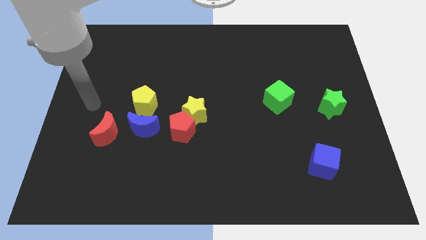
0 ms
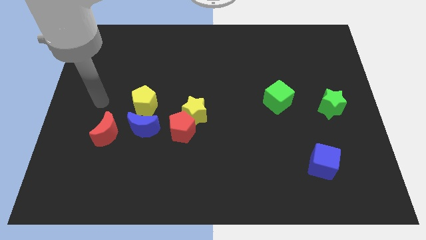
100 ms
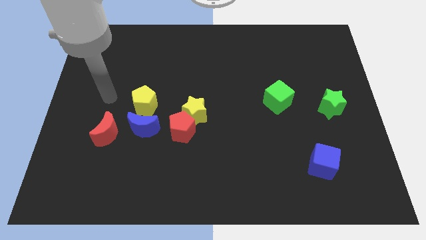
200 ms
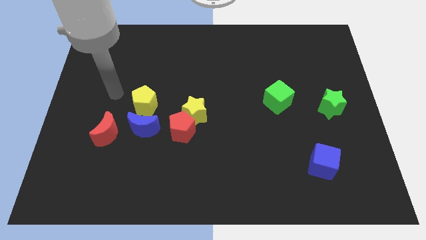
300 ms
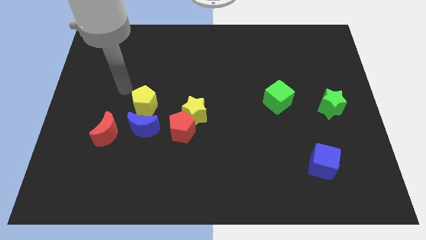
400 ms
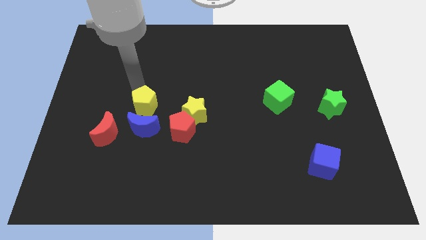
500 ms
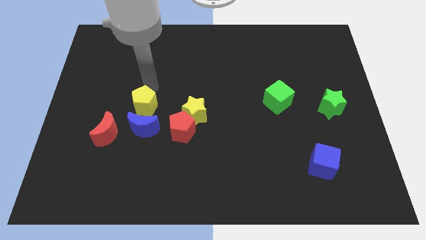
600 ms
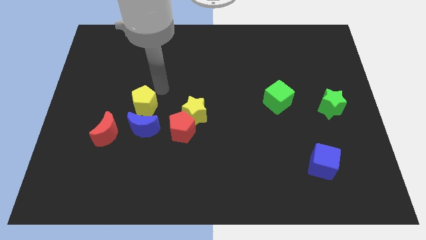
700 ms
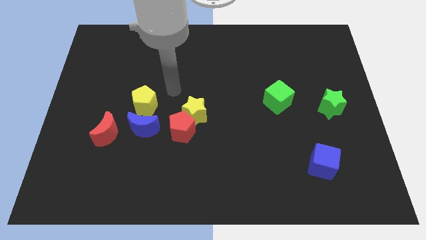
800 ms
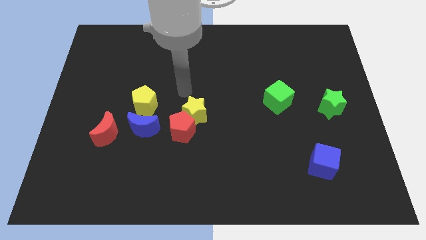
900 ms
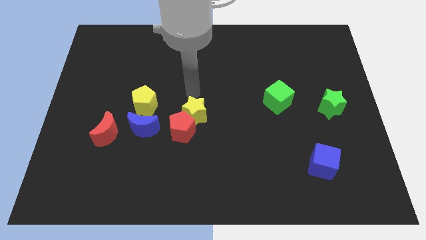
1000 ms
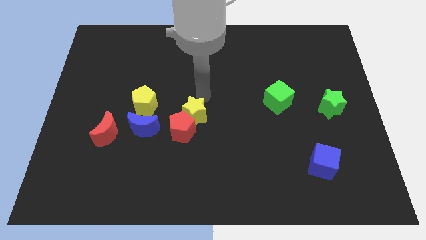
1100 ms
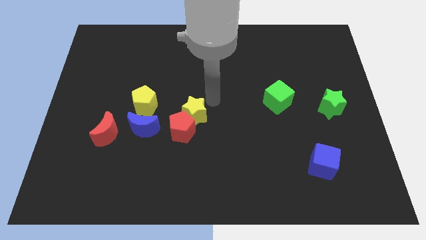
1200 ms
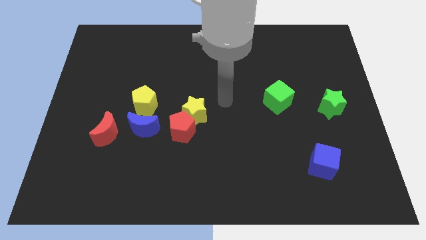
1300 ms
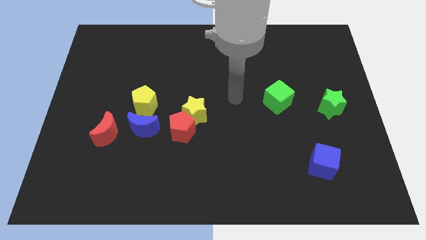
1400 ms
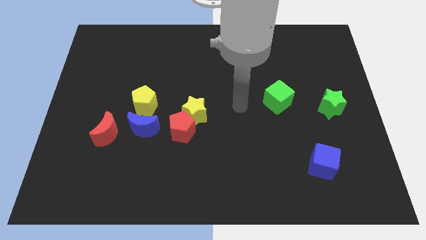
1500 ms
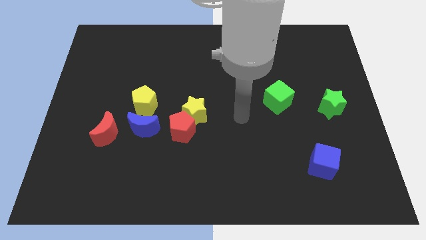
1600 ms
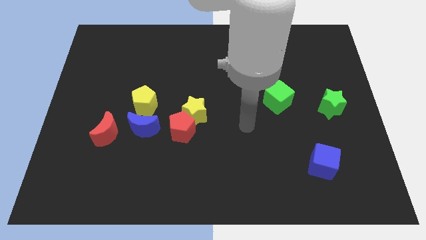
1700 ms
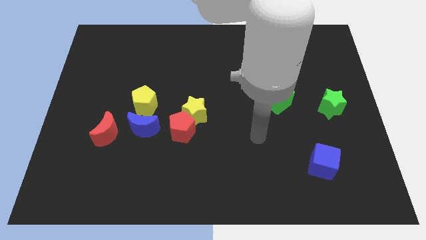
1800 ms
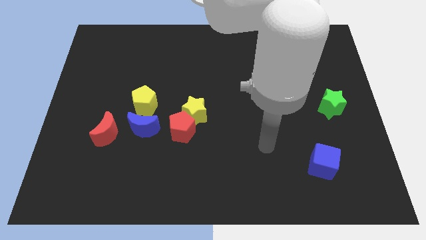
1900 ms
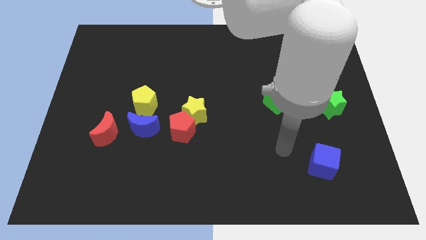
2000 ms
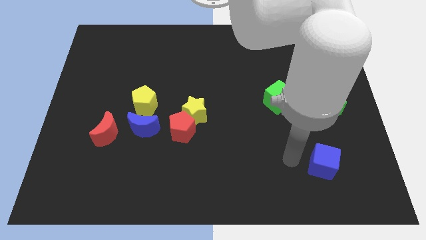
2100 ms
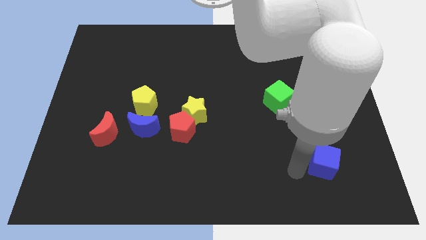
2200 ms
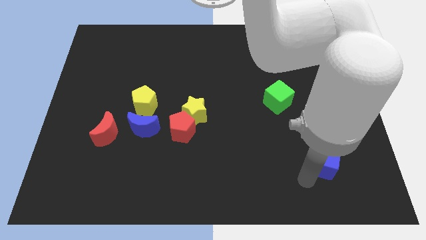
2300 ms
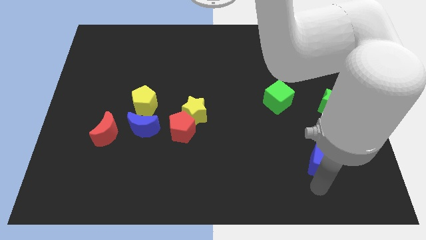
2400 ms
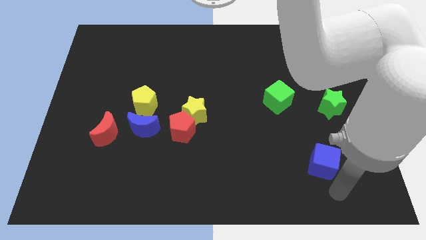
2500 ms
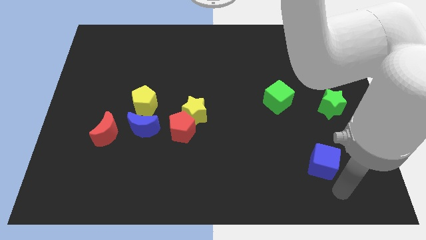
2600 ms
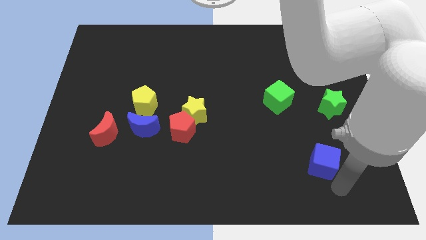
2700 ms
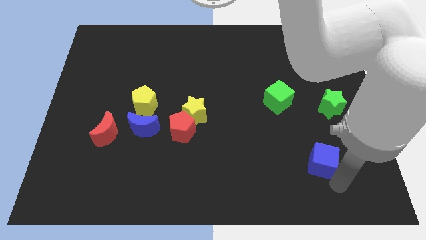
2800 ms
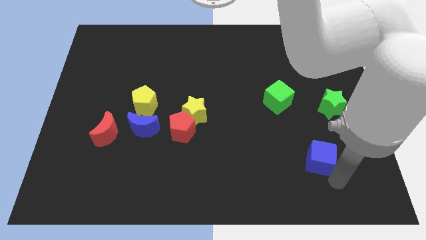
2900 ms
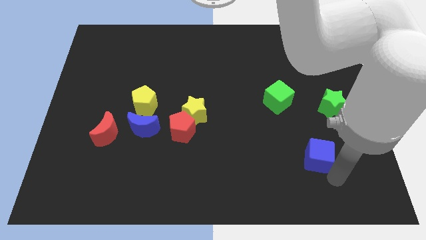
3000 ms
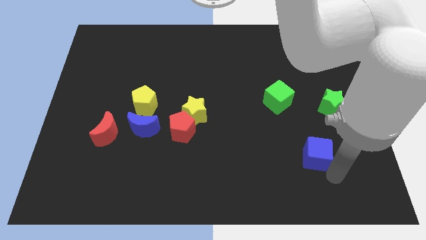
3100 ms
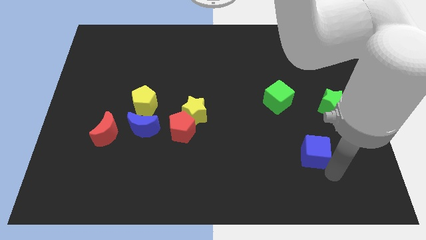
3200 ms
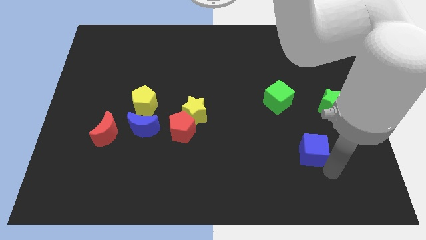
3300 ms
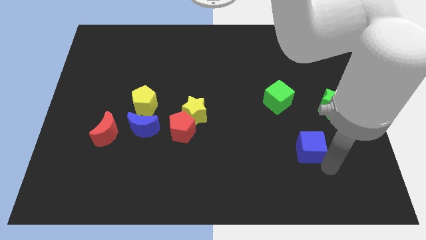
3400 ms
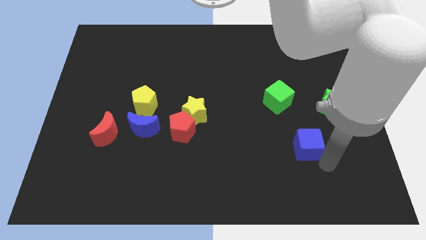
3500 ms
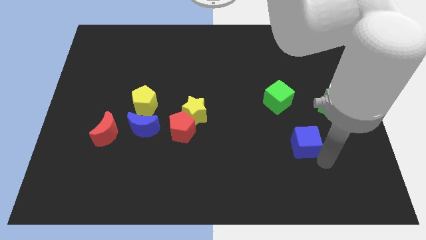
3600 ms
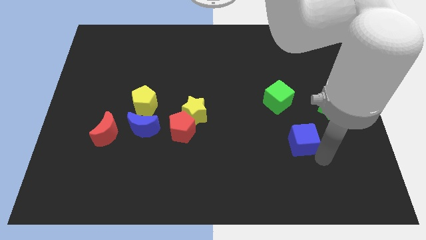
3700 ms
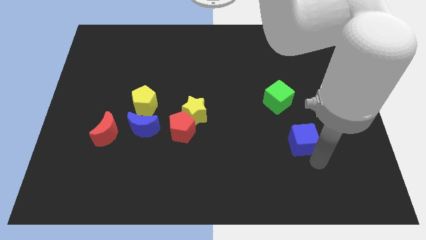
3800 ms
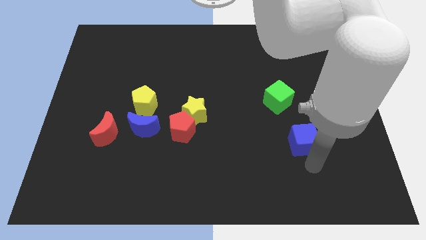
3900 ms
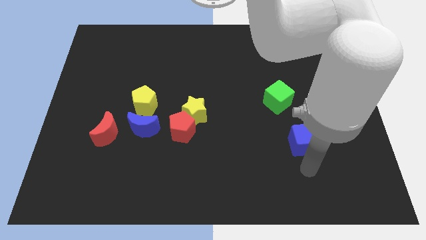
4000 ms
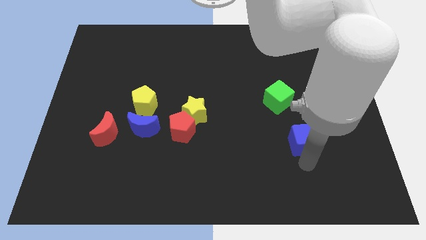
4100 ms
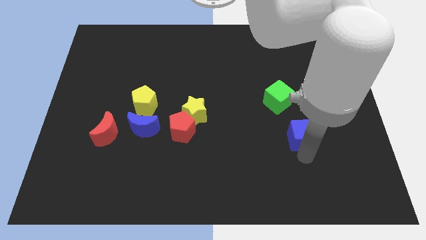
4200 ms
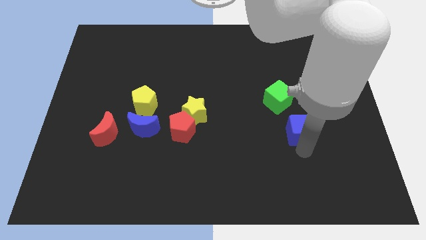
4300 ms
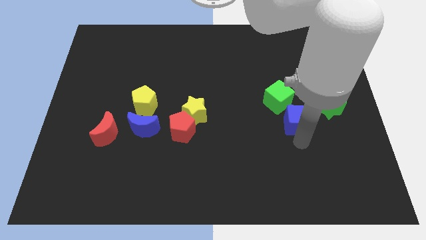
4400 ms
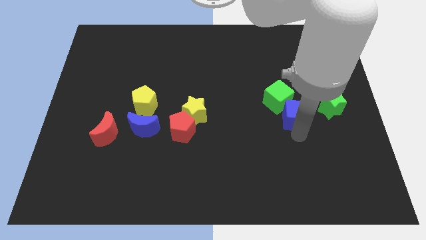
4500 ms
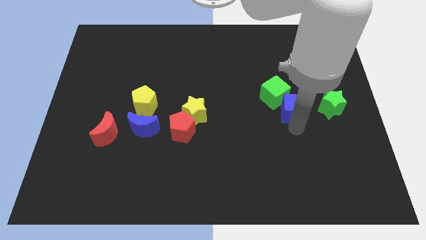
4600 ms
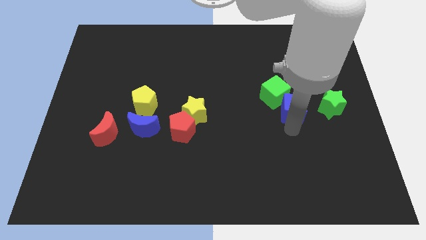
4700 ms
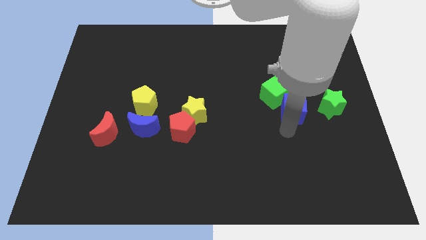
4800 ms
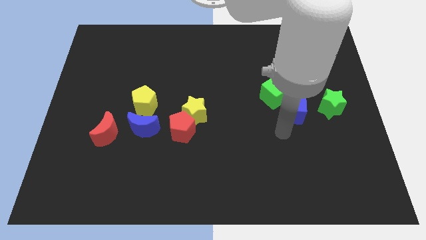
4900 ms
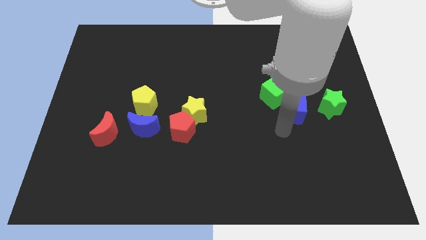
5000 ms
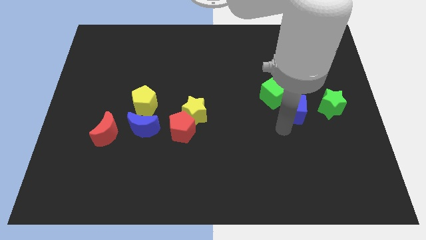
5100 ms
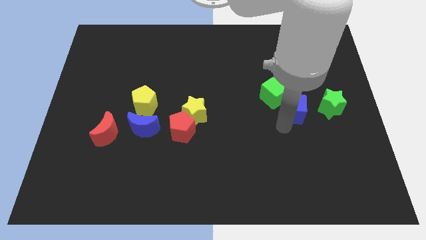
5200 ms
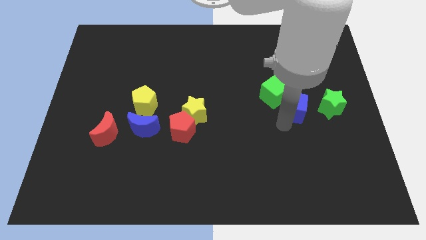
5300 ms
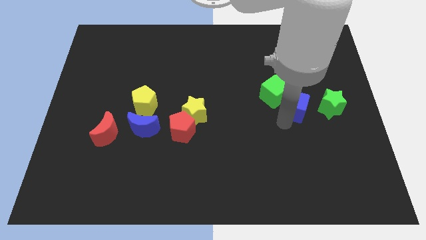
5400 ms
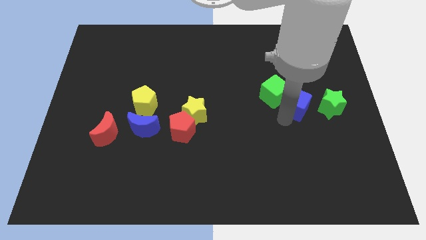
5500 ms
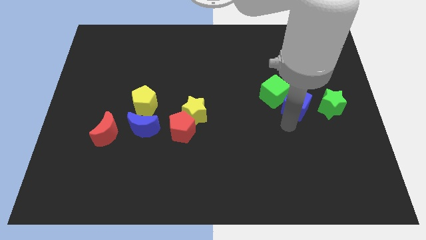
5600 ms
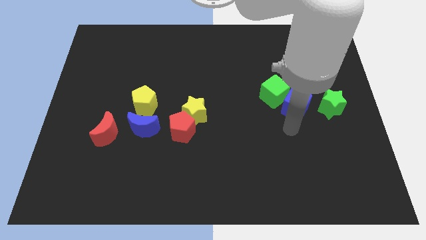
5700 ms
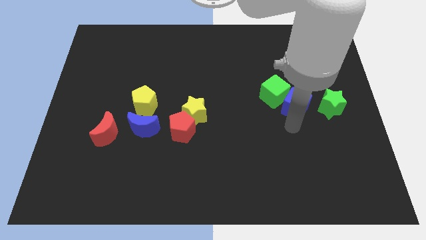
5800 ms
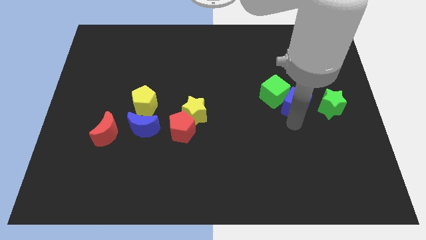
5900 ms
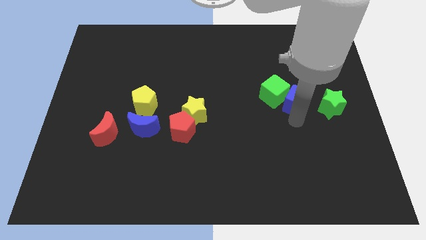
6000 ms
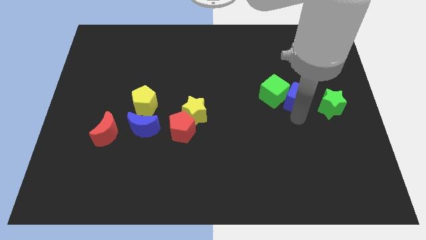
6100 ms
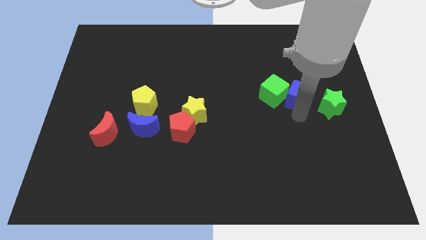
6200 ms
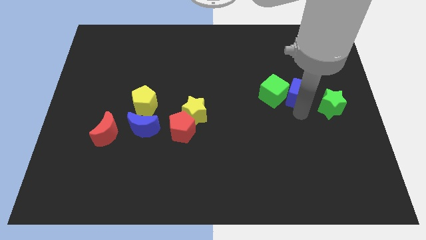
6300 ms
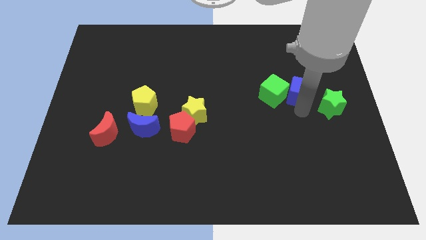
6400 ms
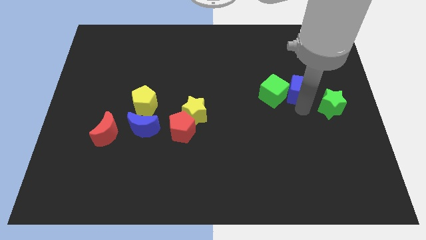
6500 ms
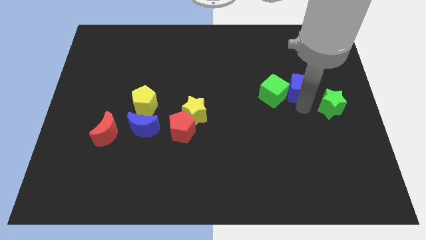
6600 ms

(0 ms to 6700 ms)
slide the blue cube upwards

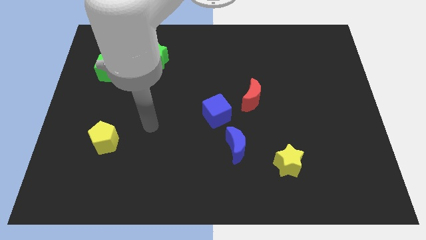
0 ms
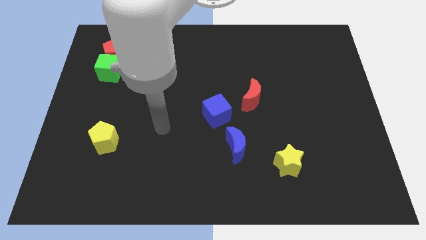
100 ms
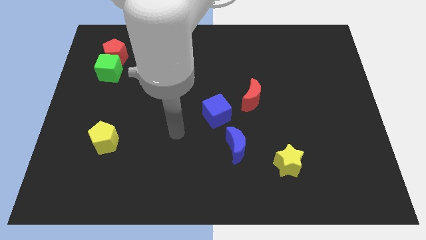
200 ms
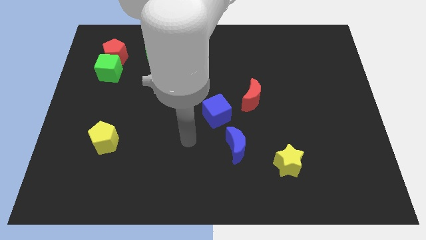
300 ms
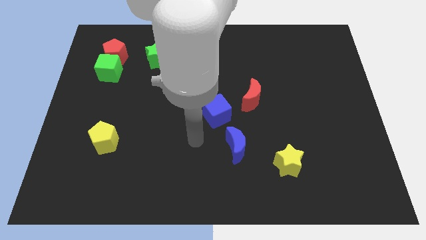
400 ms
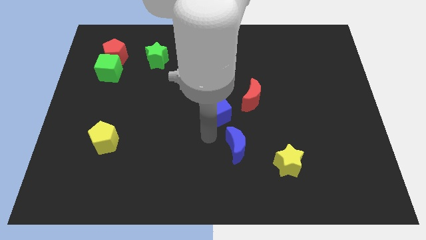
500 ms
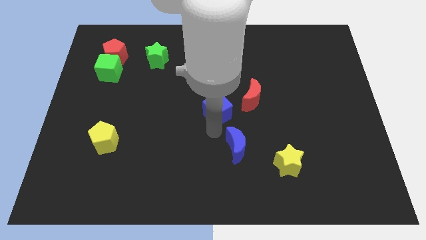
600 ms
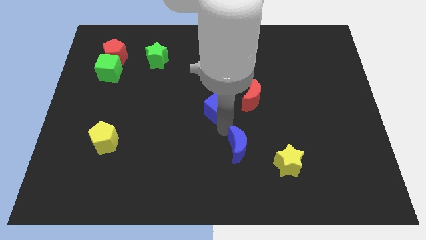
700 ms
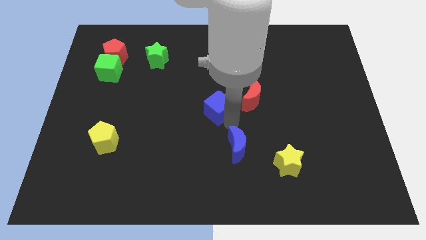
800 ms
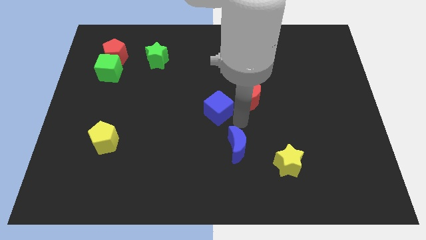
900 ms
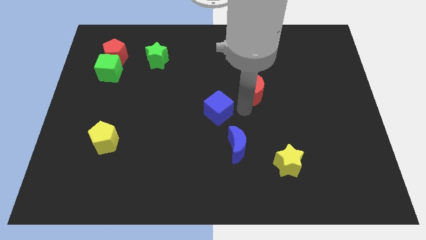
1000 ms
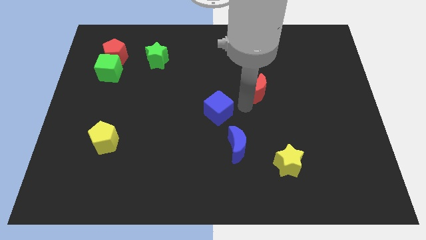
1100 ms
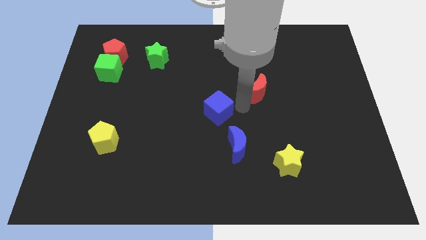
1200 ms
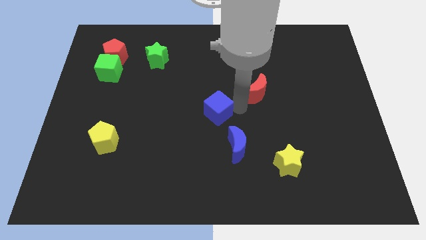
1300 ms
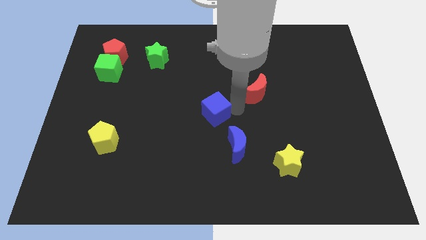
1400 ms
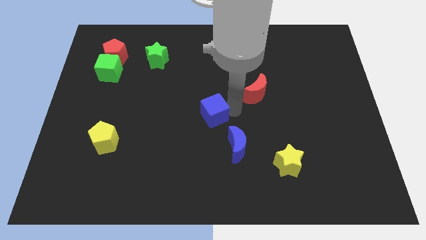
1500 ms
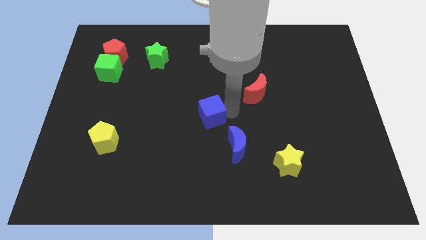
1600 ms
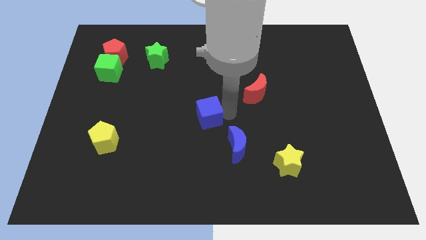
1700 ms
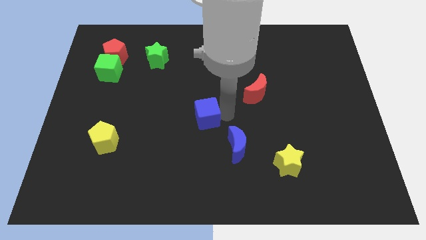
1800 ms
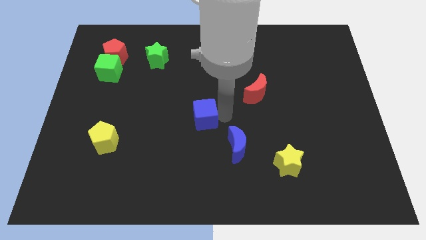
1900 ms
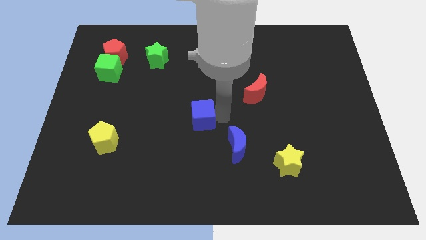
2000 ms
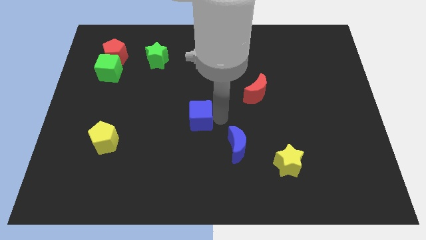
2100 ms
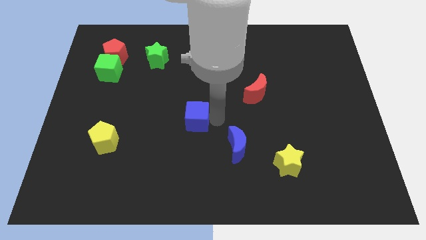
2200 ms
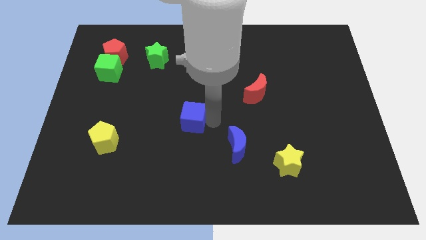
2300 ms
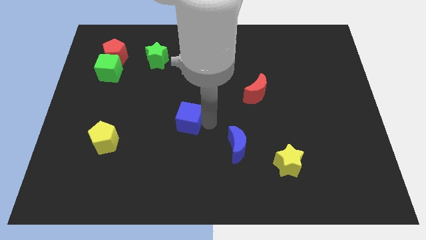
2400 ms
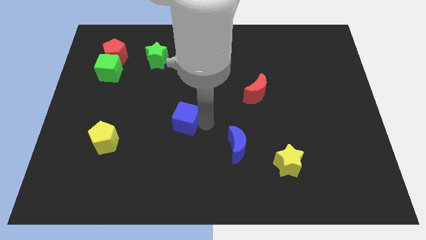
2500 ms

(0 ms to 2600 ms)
slightly move the blue cube to the left
